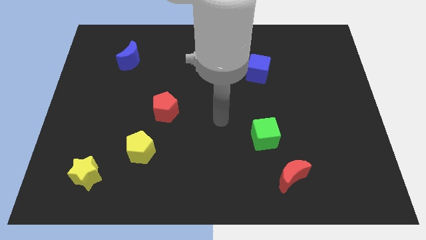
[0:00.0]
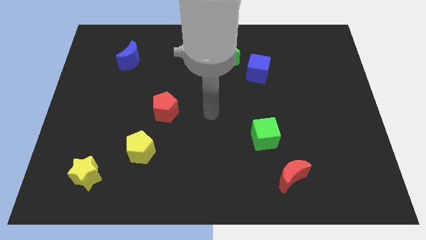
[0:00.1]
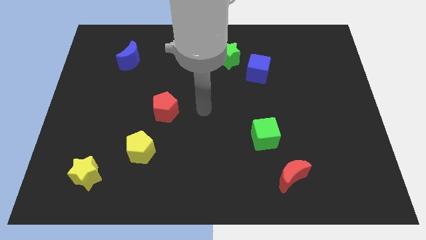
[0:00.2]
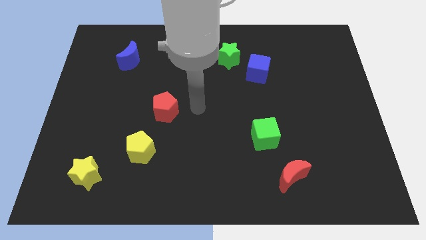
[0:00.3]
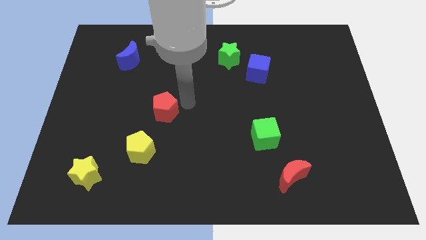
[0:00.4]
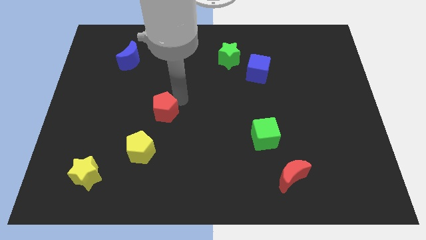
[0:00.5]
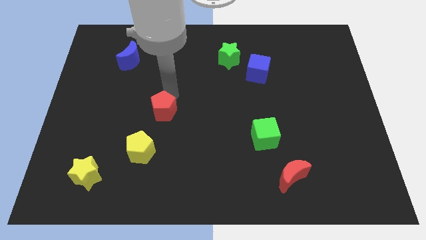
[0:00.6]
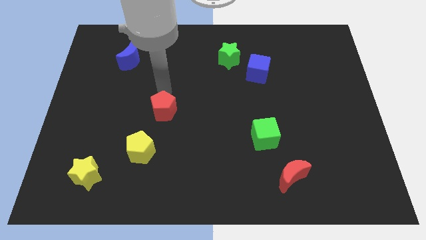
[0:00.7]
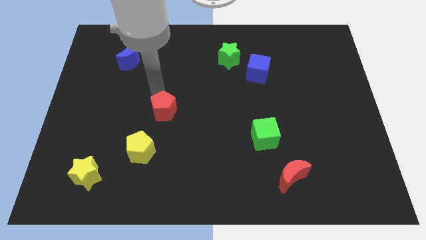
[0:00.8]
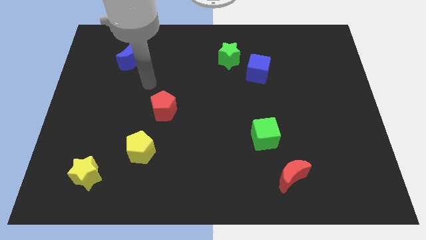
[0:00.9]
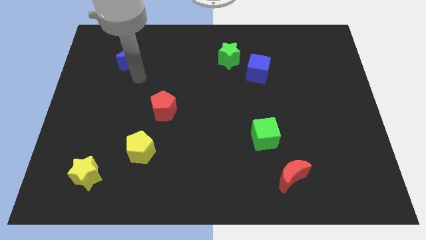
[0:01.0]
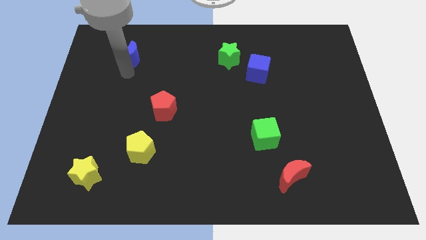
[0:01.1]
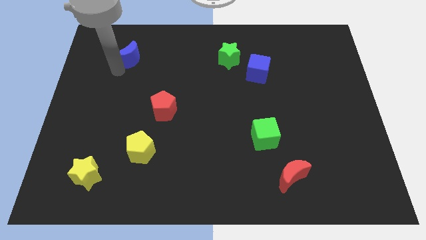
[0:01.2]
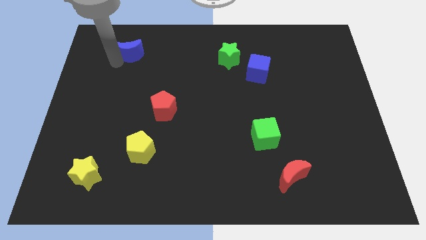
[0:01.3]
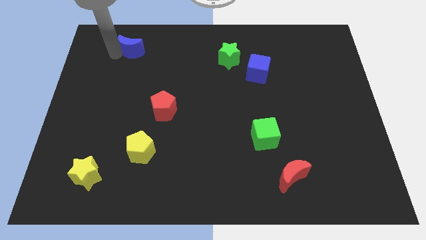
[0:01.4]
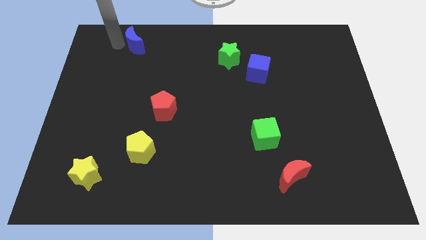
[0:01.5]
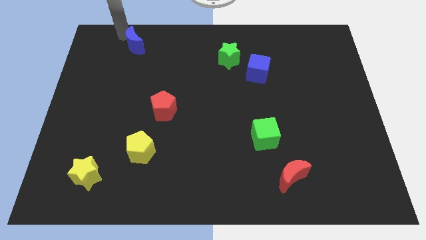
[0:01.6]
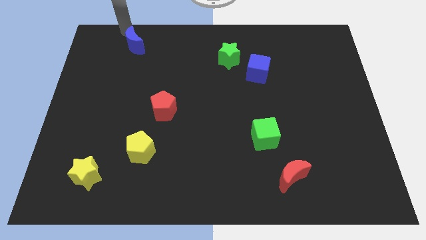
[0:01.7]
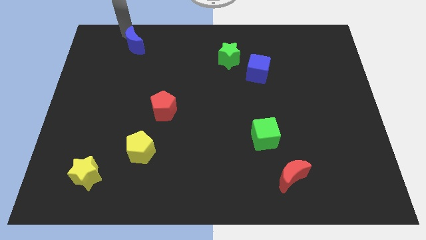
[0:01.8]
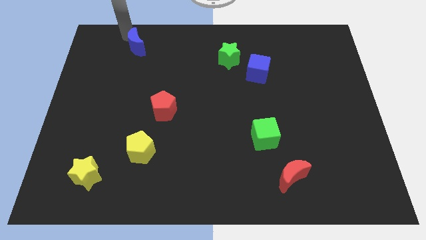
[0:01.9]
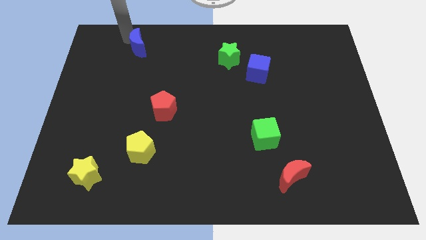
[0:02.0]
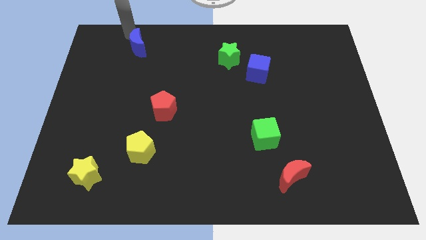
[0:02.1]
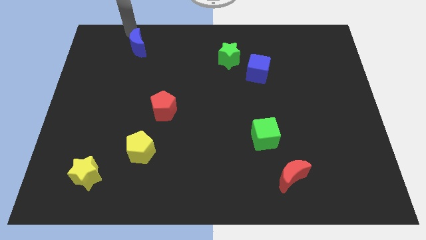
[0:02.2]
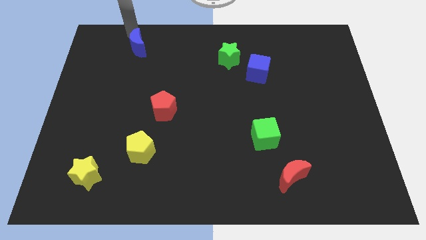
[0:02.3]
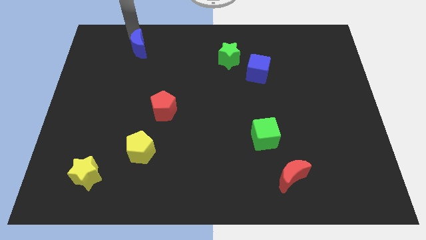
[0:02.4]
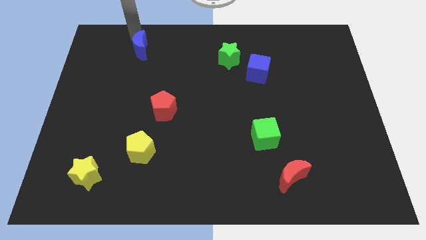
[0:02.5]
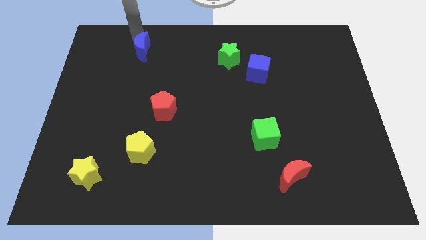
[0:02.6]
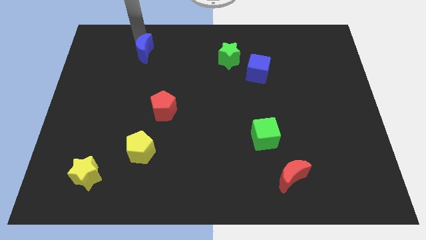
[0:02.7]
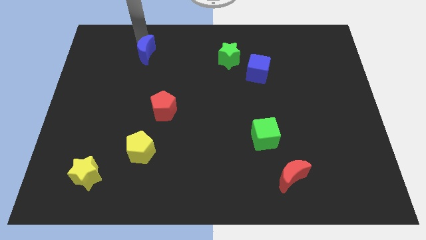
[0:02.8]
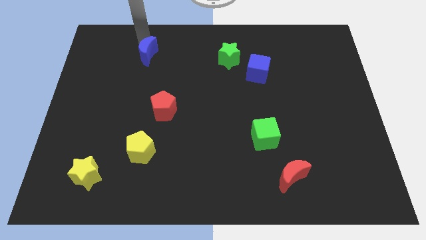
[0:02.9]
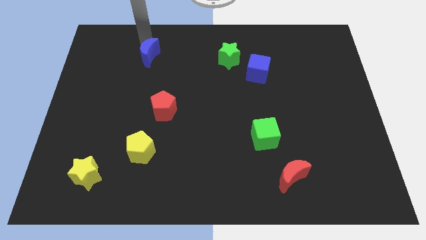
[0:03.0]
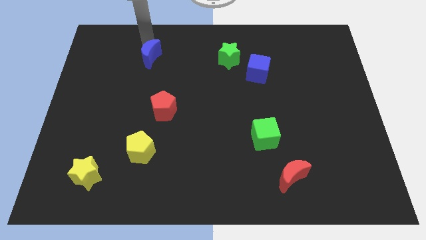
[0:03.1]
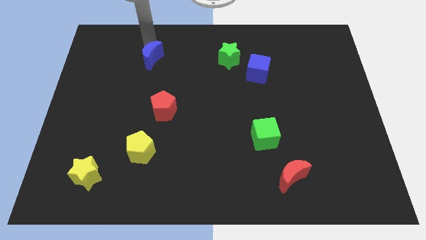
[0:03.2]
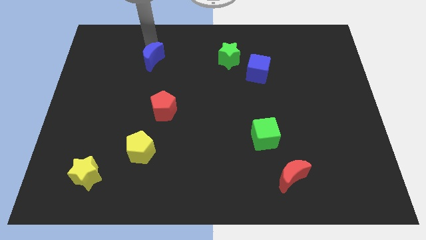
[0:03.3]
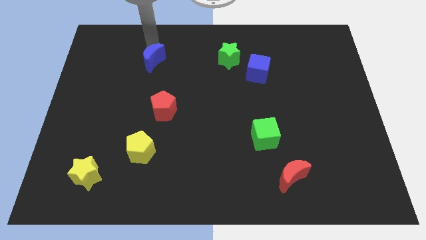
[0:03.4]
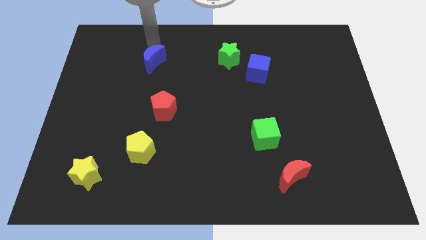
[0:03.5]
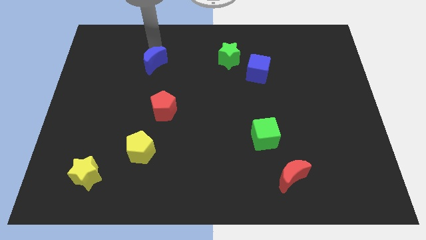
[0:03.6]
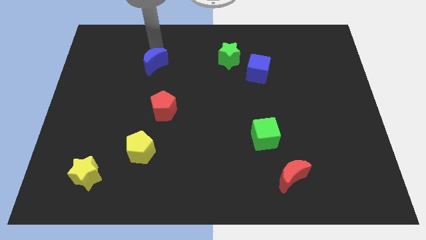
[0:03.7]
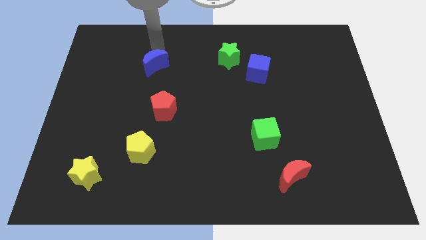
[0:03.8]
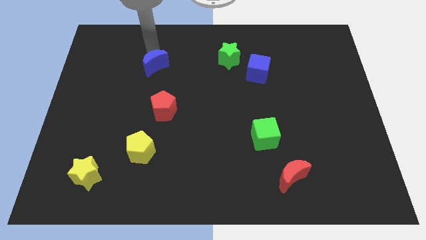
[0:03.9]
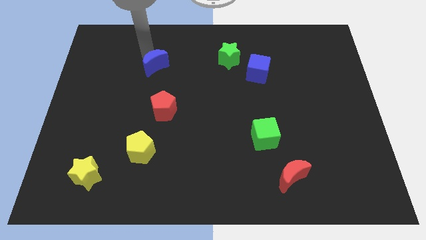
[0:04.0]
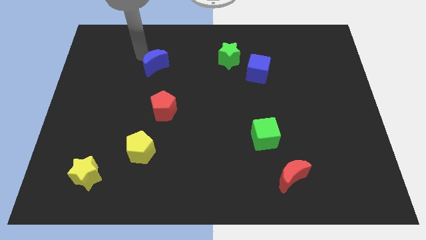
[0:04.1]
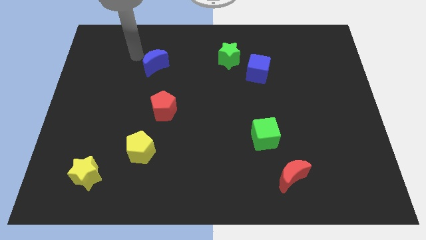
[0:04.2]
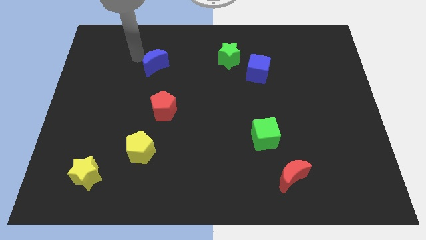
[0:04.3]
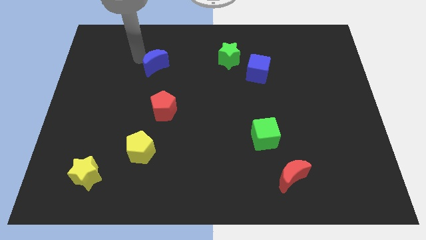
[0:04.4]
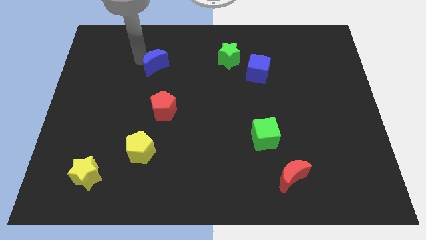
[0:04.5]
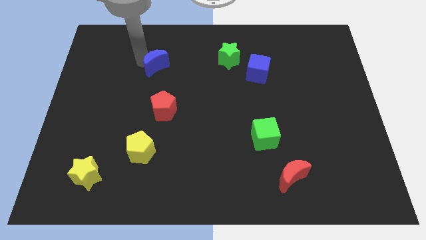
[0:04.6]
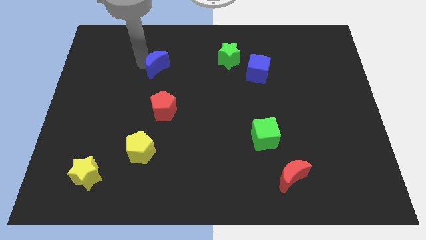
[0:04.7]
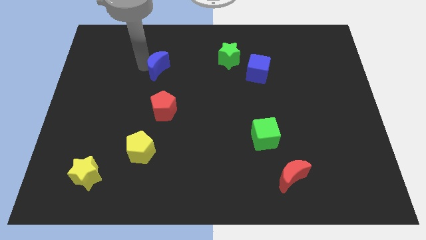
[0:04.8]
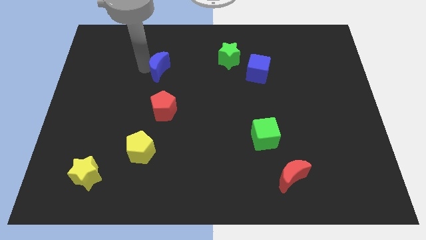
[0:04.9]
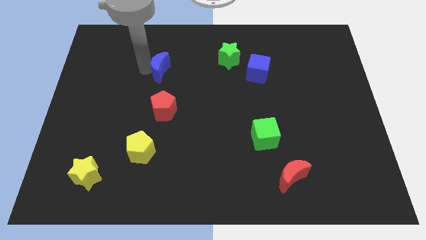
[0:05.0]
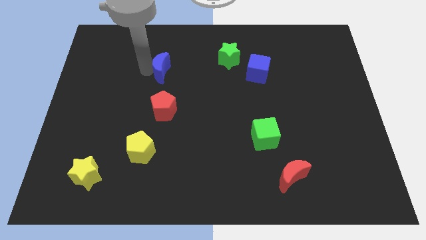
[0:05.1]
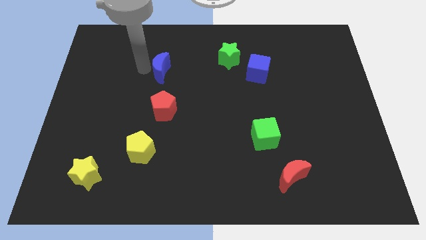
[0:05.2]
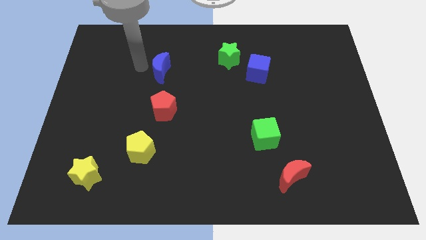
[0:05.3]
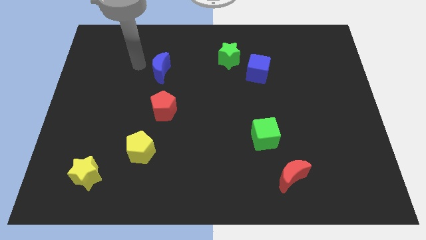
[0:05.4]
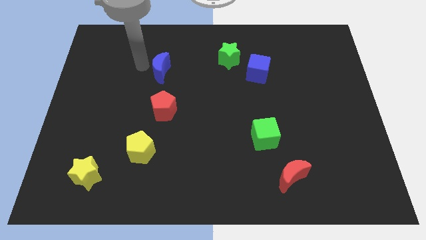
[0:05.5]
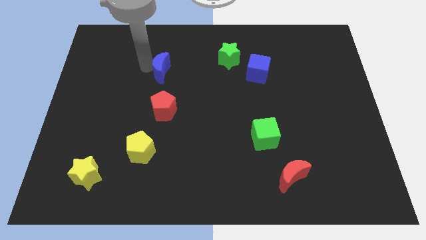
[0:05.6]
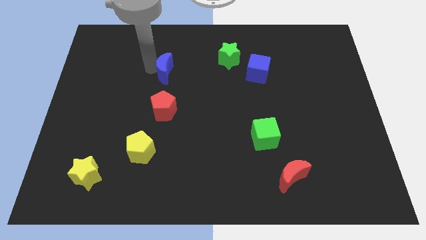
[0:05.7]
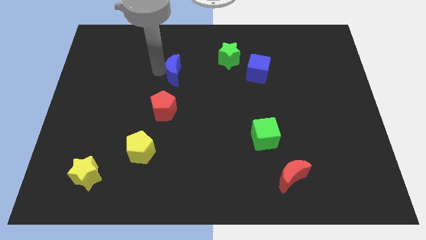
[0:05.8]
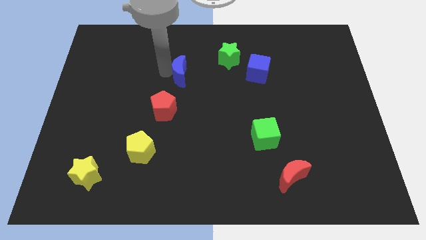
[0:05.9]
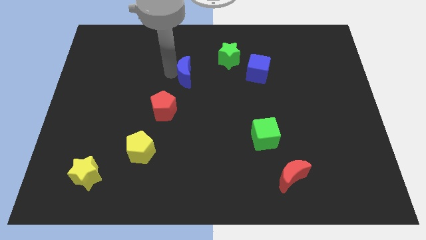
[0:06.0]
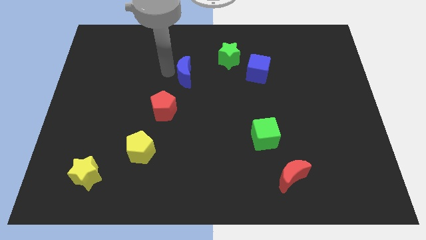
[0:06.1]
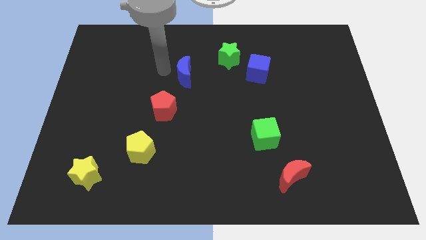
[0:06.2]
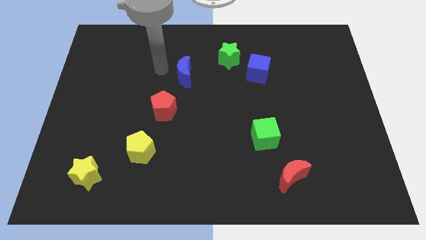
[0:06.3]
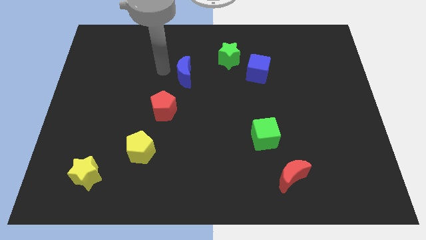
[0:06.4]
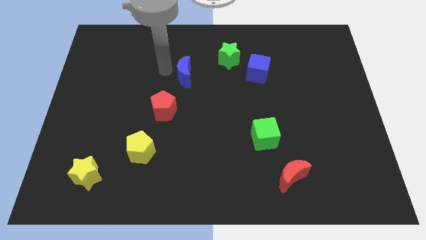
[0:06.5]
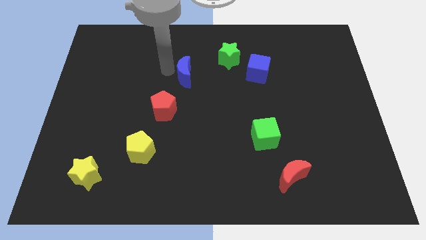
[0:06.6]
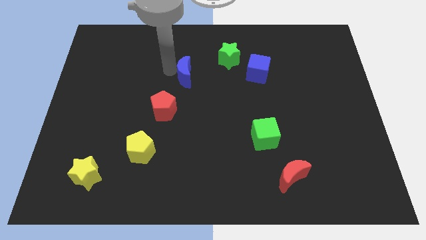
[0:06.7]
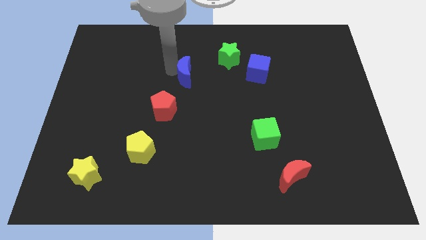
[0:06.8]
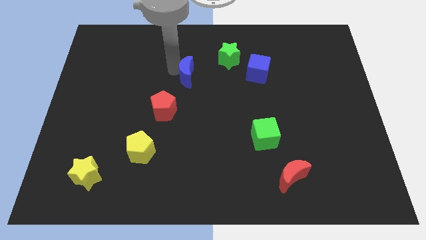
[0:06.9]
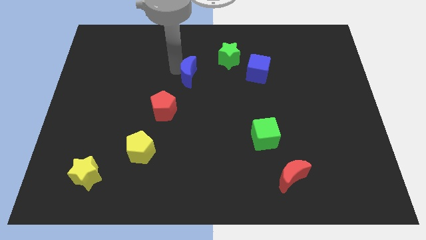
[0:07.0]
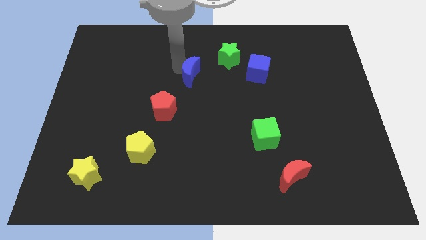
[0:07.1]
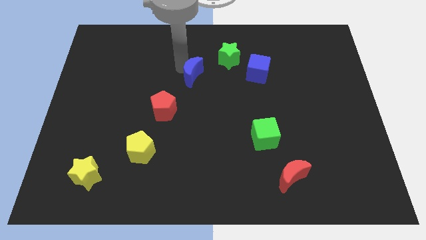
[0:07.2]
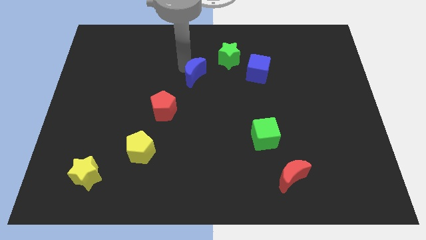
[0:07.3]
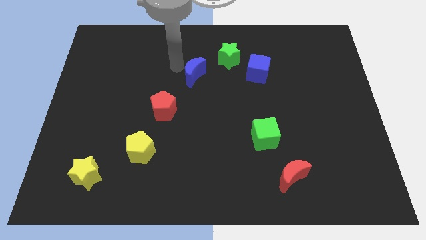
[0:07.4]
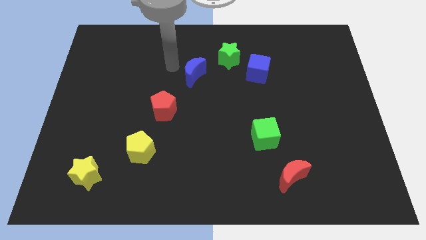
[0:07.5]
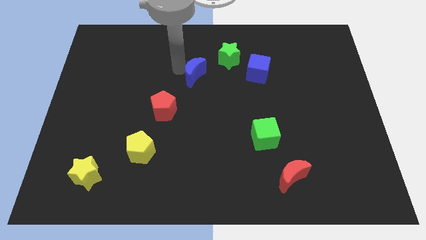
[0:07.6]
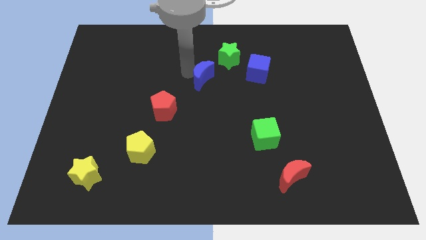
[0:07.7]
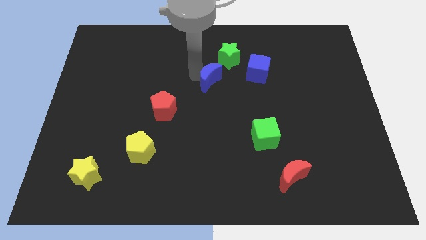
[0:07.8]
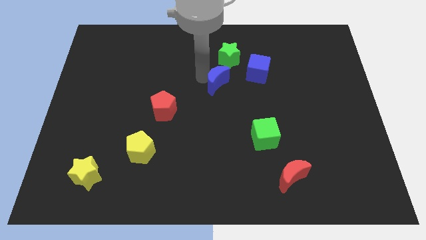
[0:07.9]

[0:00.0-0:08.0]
move the blue moon to the bottom of the green star

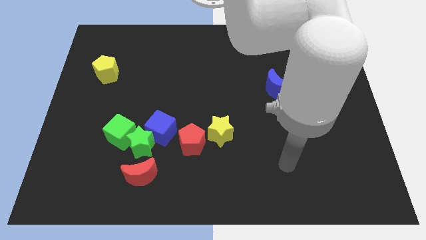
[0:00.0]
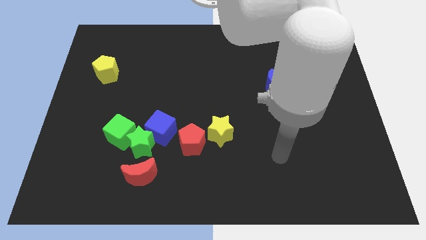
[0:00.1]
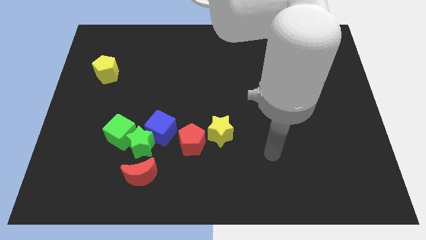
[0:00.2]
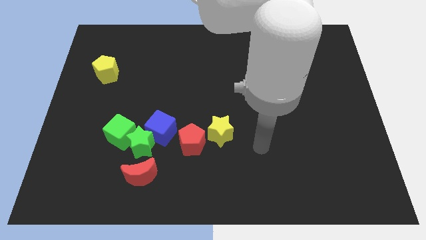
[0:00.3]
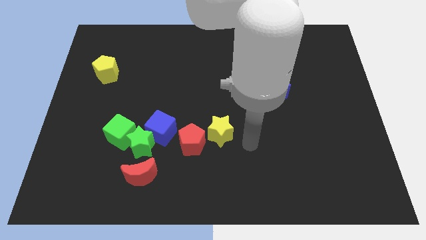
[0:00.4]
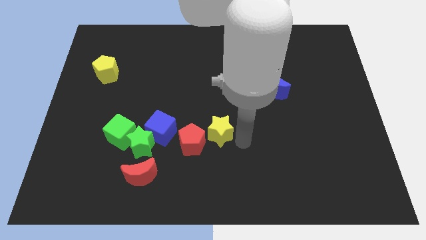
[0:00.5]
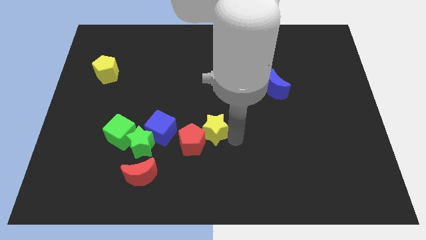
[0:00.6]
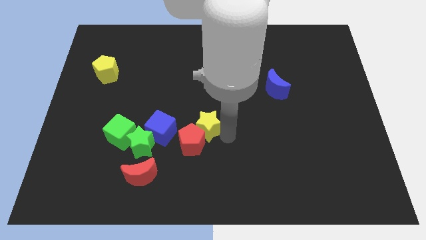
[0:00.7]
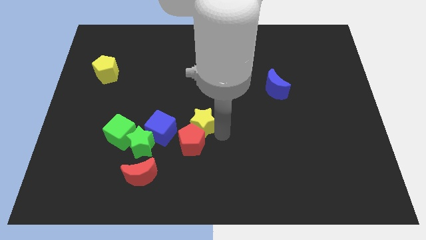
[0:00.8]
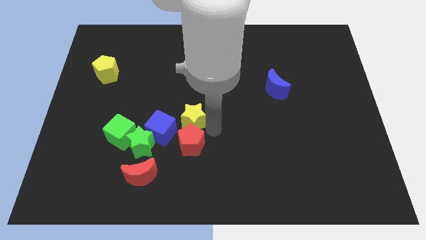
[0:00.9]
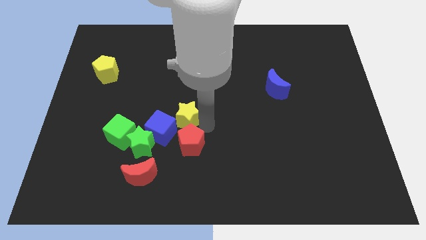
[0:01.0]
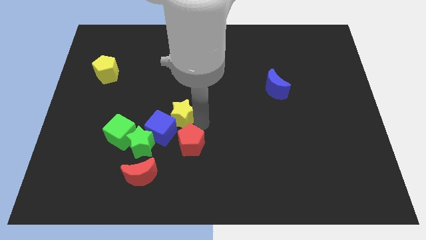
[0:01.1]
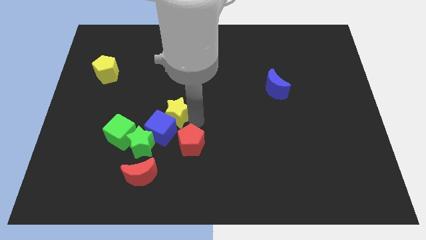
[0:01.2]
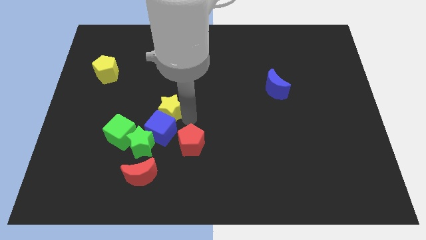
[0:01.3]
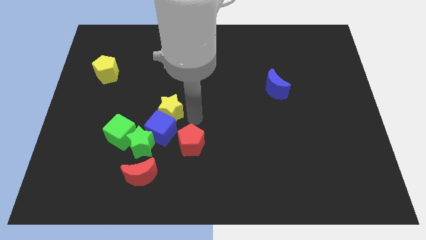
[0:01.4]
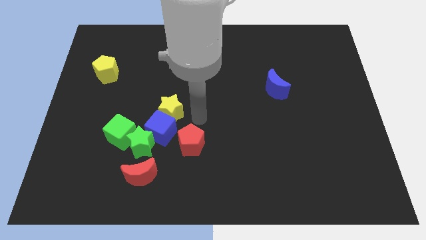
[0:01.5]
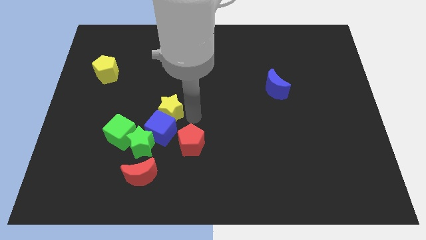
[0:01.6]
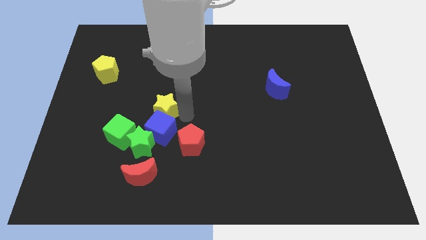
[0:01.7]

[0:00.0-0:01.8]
move the yellow star to the top side of the green star
